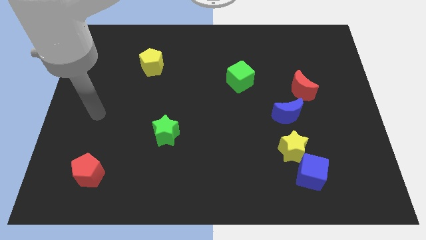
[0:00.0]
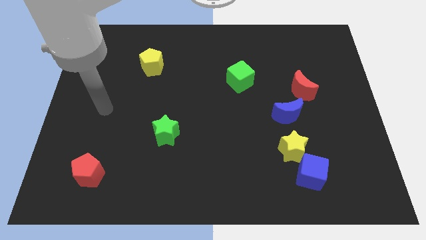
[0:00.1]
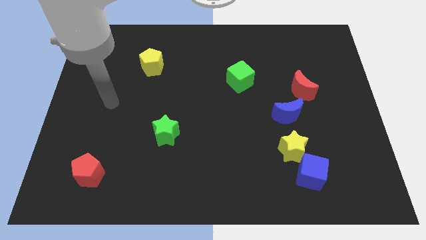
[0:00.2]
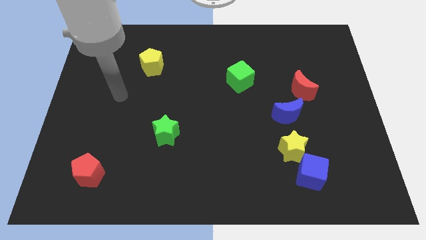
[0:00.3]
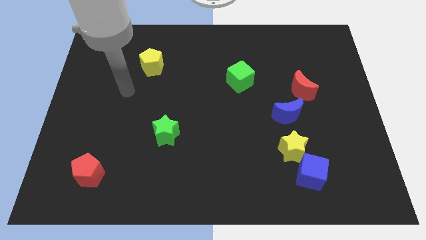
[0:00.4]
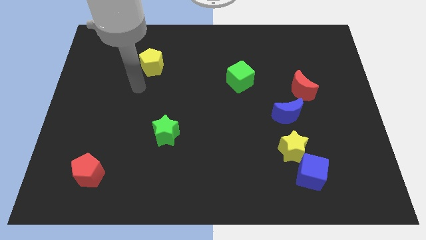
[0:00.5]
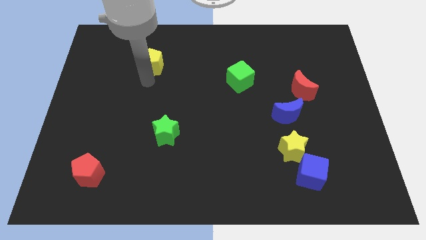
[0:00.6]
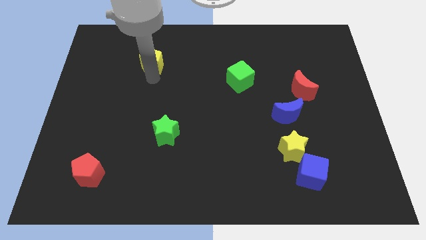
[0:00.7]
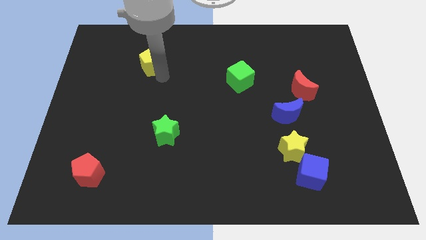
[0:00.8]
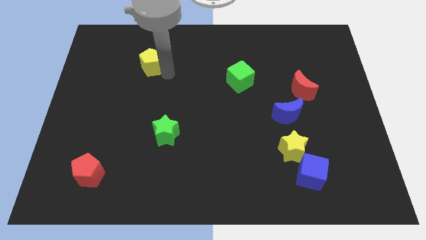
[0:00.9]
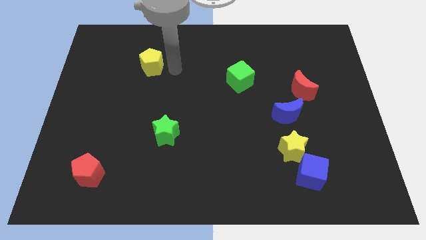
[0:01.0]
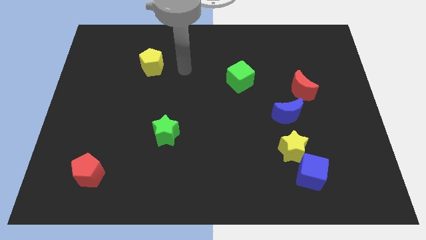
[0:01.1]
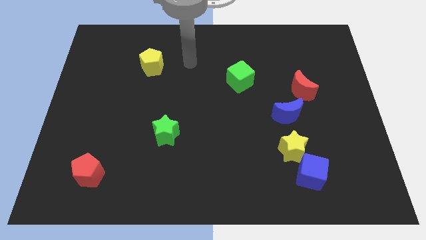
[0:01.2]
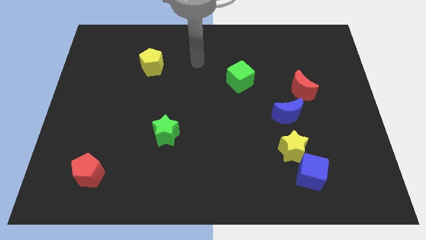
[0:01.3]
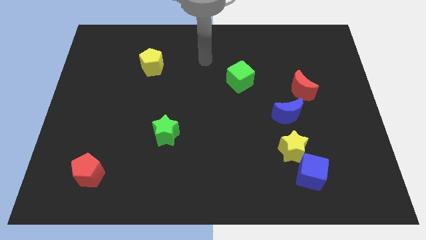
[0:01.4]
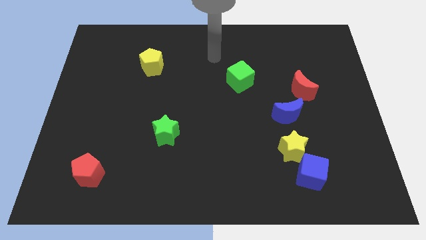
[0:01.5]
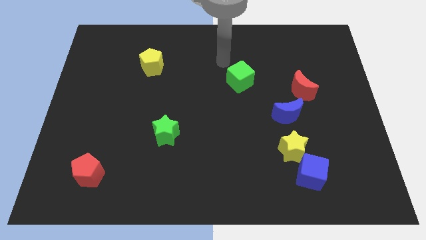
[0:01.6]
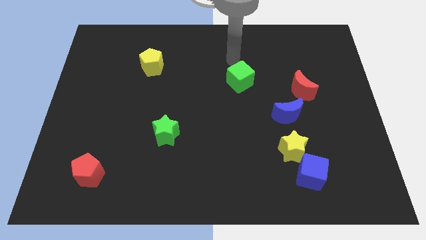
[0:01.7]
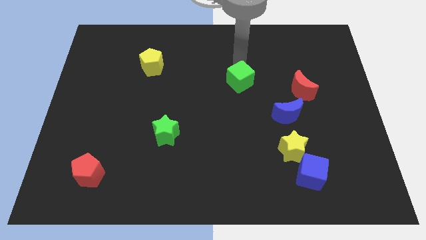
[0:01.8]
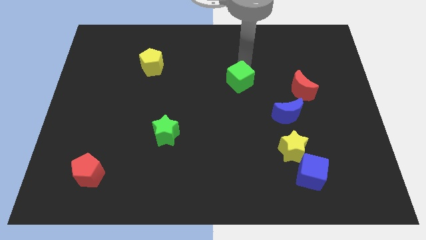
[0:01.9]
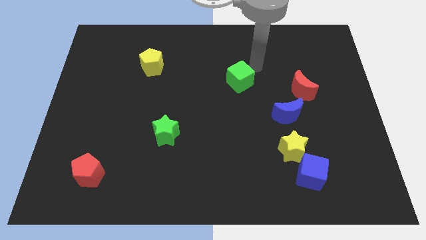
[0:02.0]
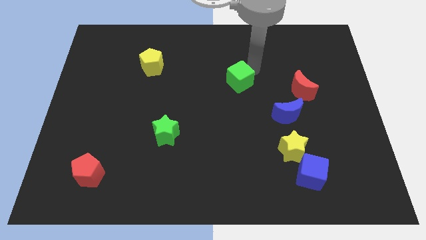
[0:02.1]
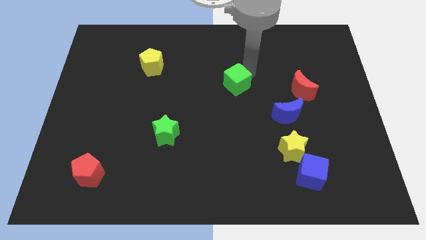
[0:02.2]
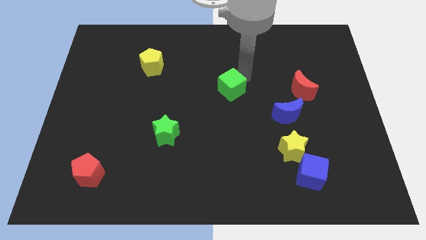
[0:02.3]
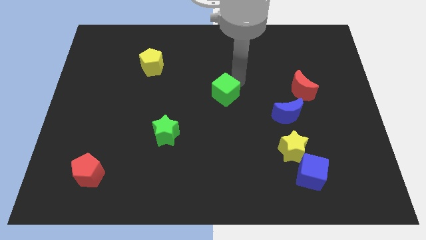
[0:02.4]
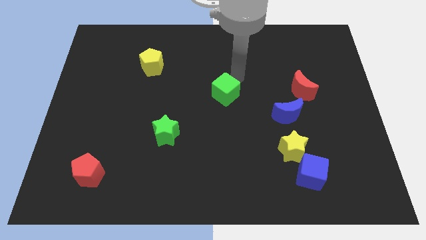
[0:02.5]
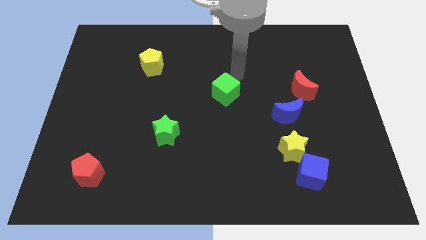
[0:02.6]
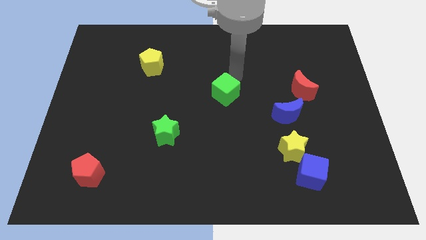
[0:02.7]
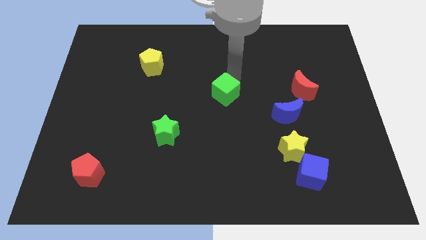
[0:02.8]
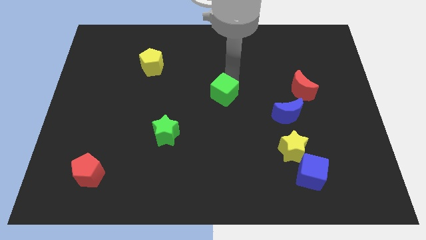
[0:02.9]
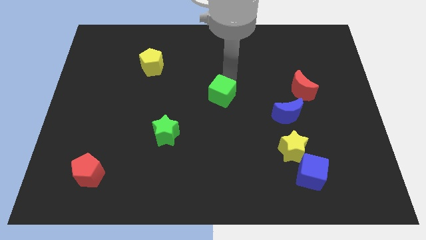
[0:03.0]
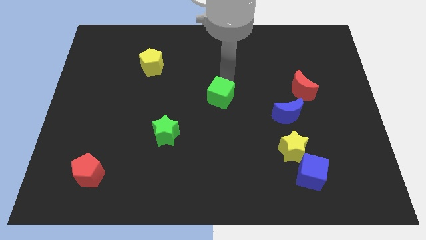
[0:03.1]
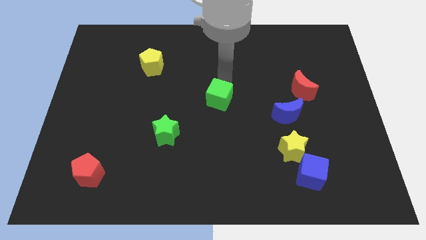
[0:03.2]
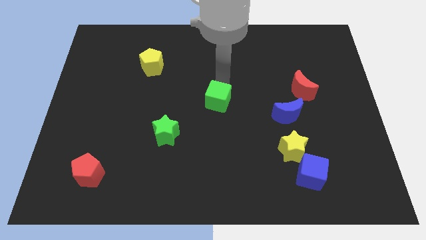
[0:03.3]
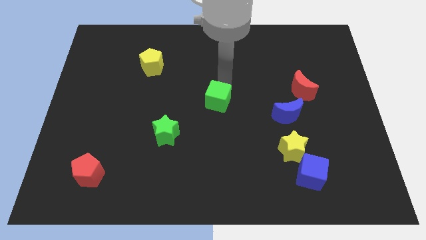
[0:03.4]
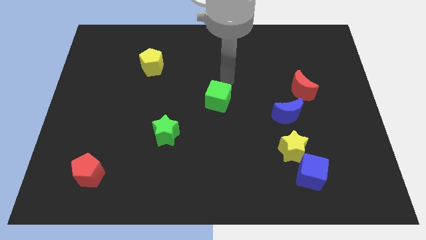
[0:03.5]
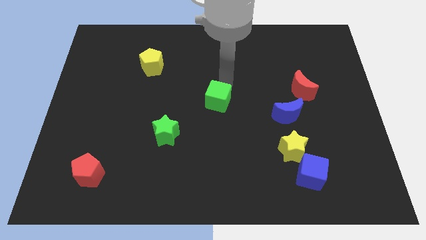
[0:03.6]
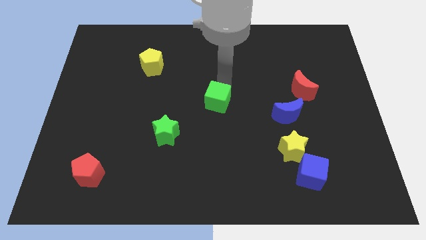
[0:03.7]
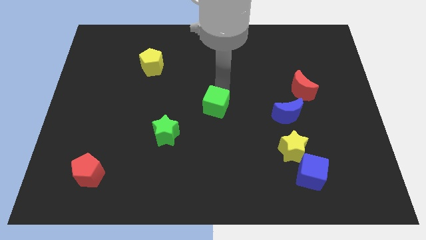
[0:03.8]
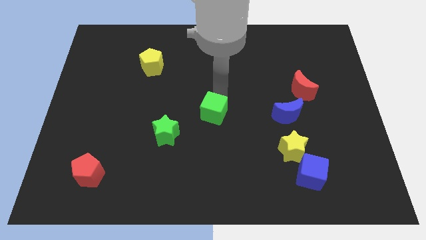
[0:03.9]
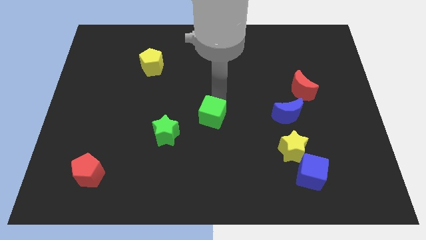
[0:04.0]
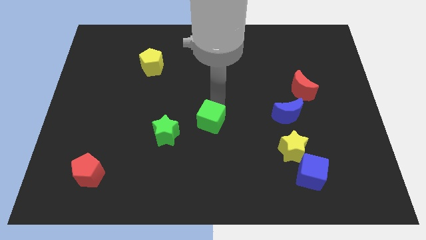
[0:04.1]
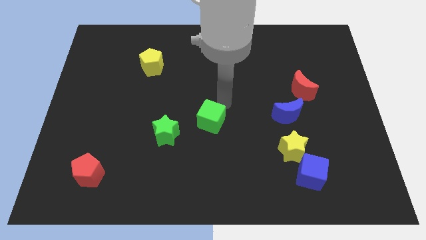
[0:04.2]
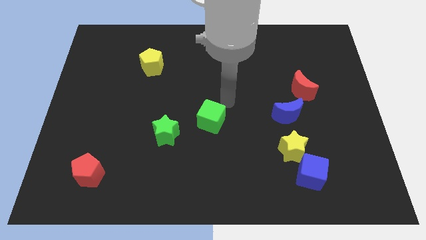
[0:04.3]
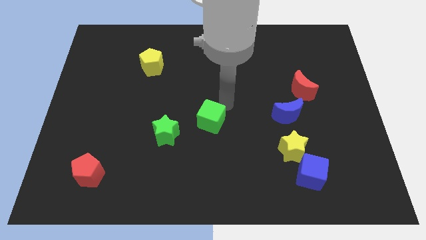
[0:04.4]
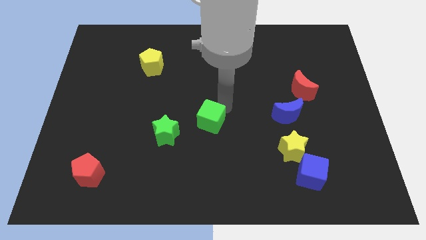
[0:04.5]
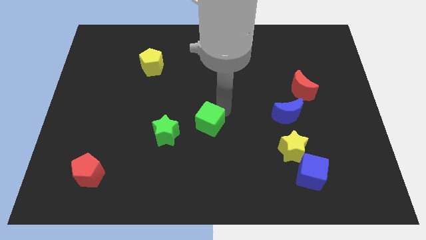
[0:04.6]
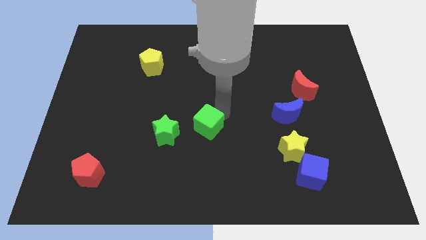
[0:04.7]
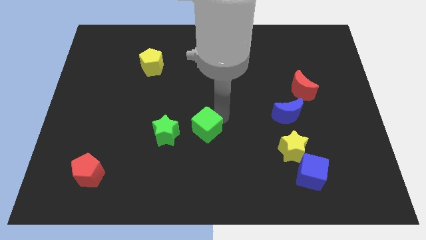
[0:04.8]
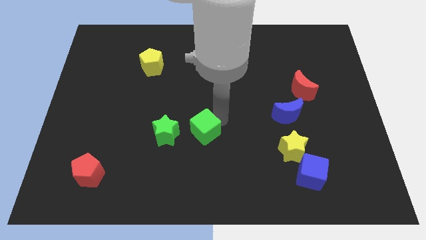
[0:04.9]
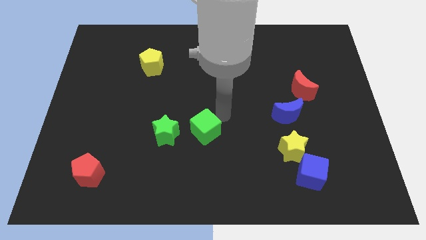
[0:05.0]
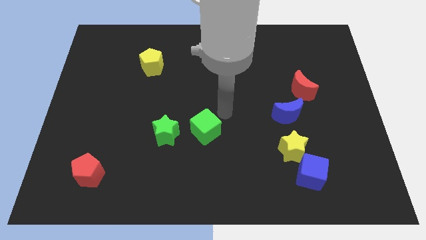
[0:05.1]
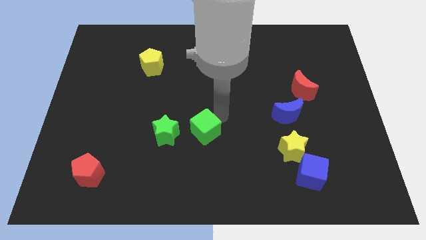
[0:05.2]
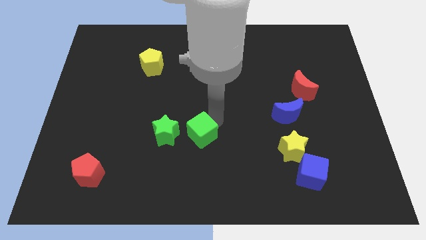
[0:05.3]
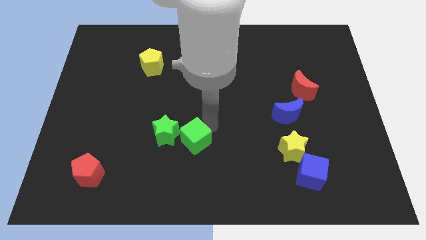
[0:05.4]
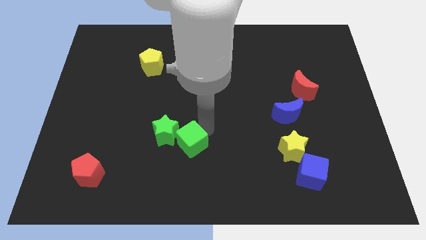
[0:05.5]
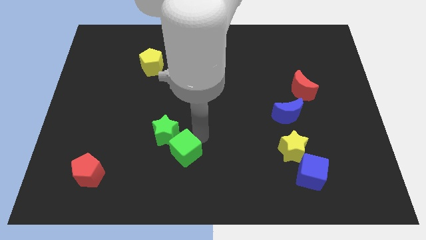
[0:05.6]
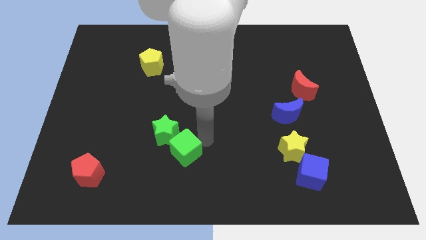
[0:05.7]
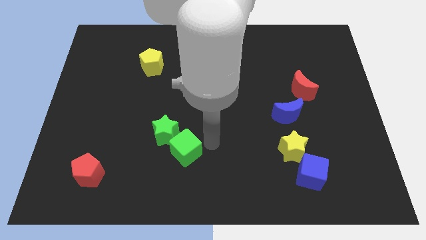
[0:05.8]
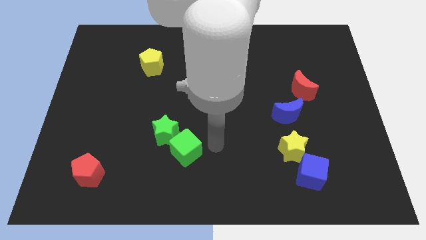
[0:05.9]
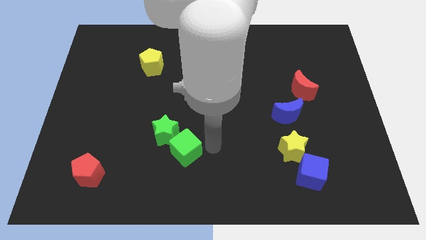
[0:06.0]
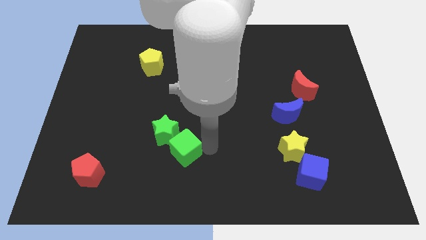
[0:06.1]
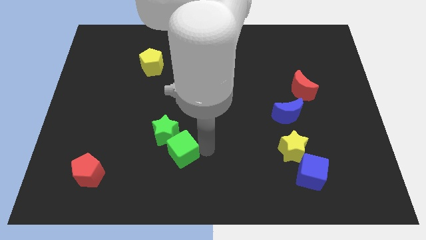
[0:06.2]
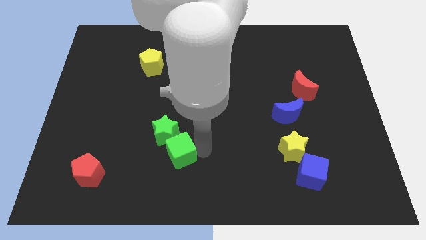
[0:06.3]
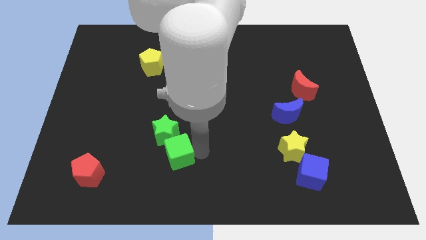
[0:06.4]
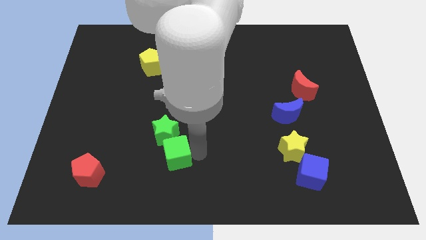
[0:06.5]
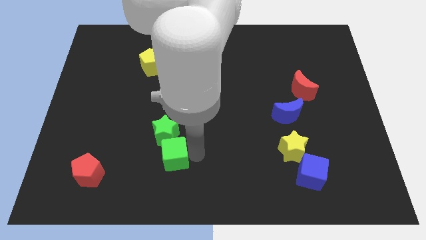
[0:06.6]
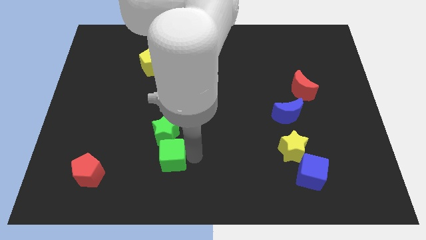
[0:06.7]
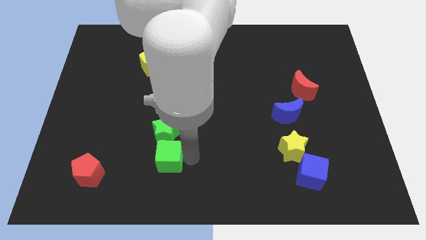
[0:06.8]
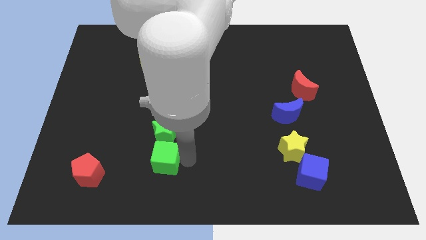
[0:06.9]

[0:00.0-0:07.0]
put the green cube to the bottom left of the green star
